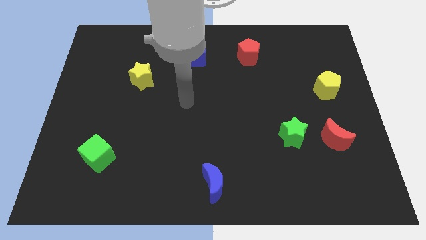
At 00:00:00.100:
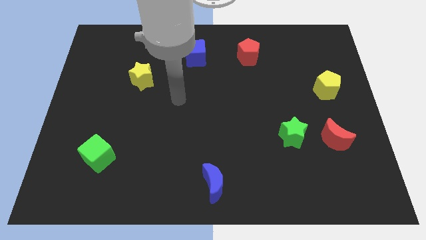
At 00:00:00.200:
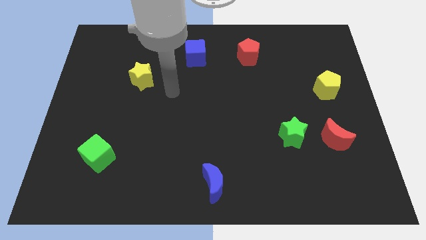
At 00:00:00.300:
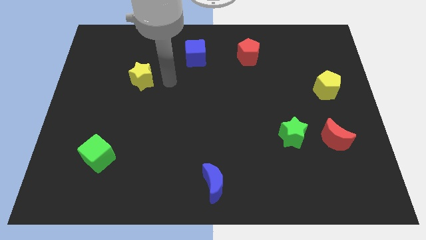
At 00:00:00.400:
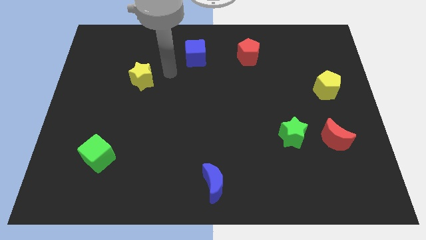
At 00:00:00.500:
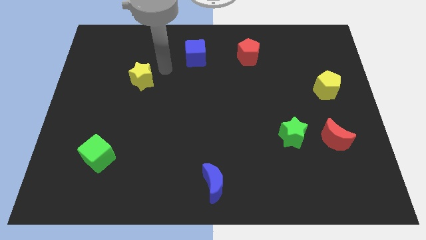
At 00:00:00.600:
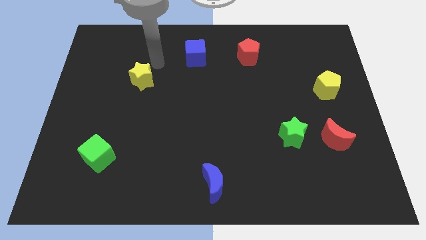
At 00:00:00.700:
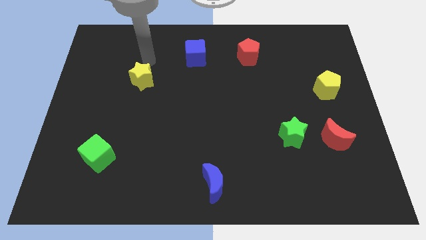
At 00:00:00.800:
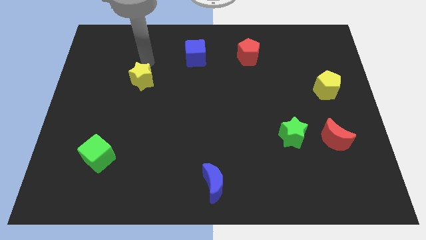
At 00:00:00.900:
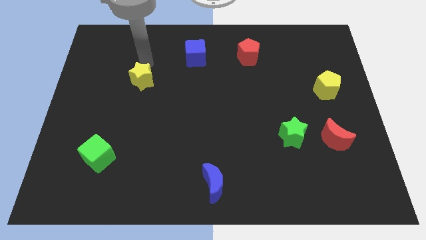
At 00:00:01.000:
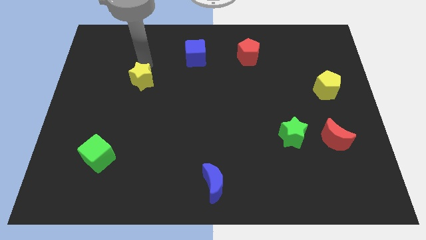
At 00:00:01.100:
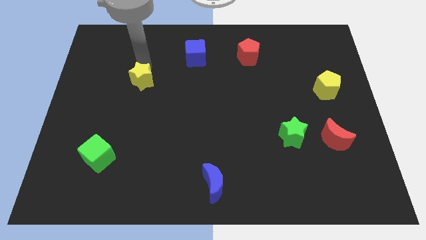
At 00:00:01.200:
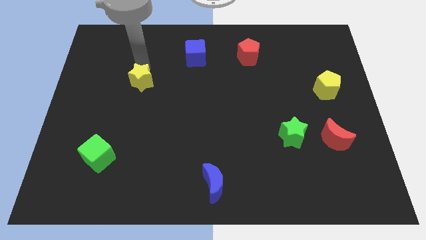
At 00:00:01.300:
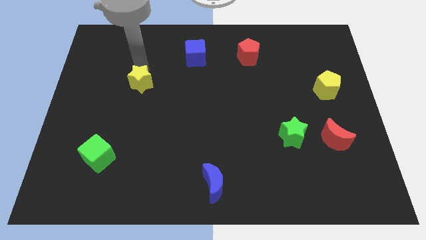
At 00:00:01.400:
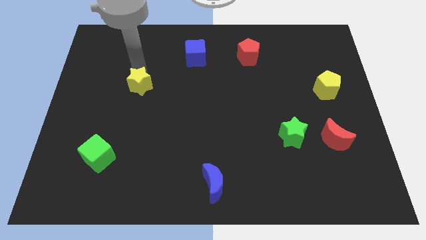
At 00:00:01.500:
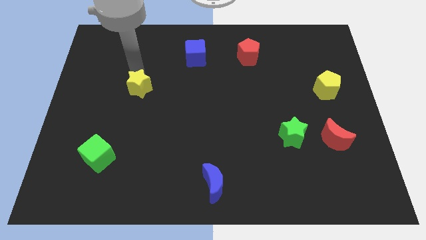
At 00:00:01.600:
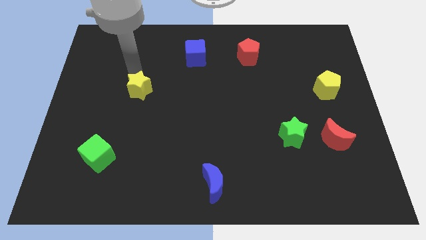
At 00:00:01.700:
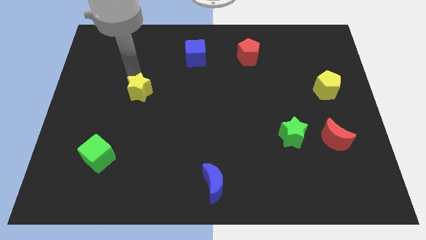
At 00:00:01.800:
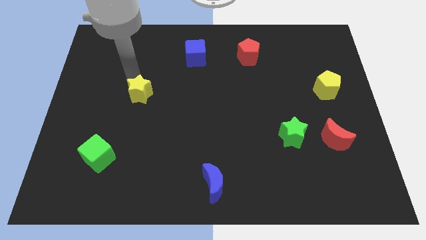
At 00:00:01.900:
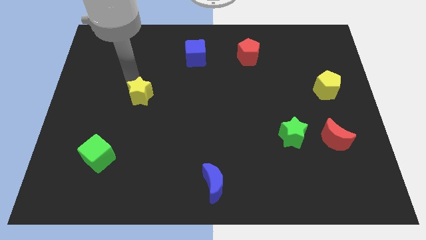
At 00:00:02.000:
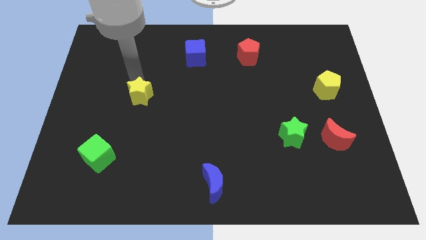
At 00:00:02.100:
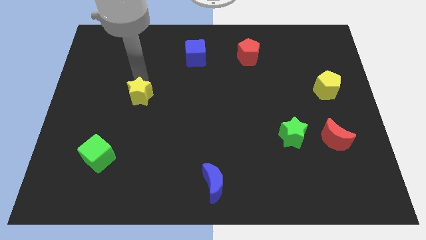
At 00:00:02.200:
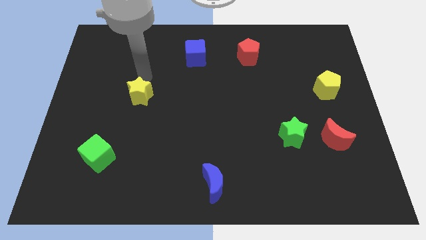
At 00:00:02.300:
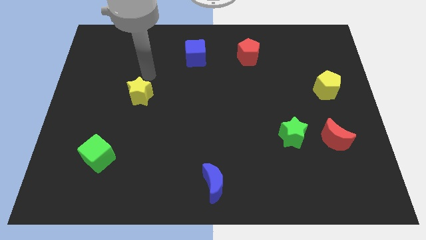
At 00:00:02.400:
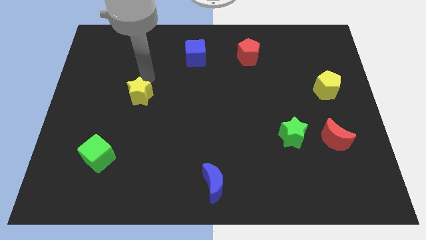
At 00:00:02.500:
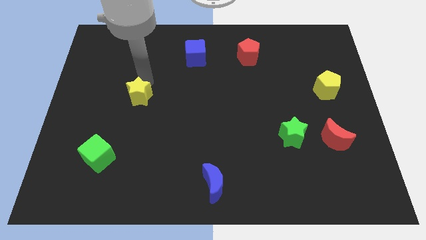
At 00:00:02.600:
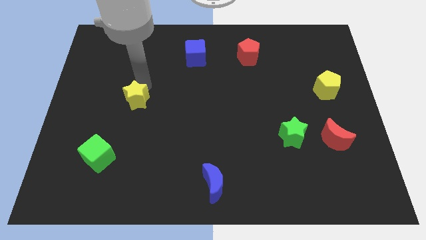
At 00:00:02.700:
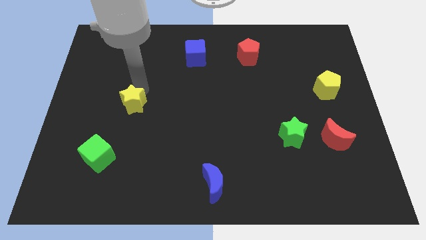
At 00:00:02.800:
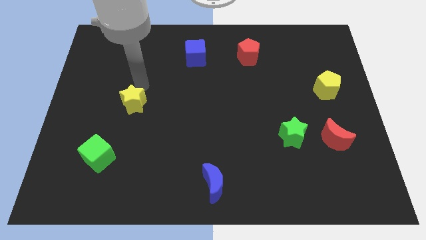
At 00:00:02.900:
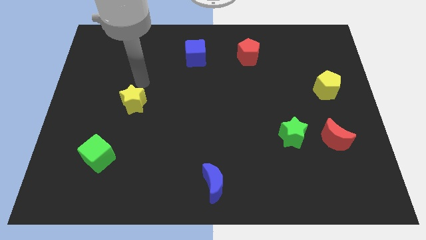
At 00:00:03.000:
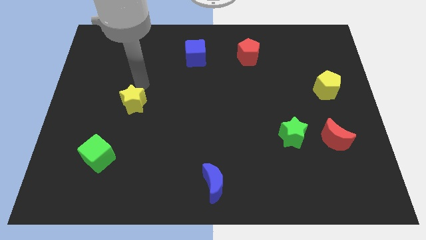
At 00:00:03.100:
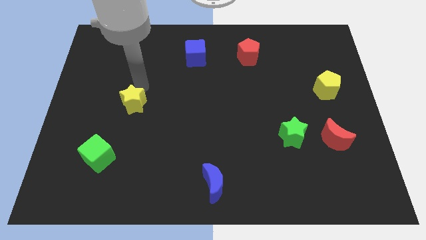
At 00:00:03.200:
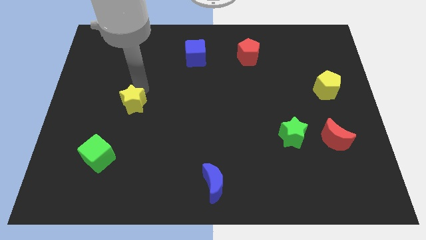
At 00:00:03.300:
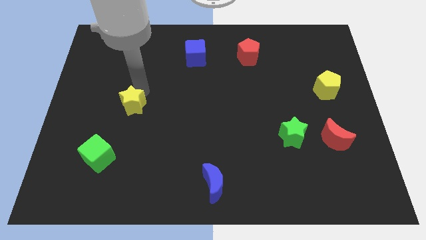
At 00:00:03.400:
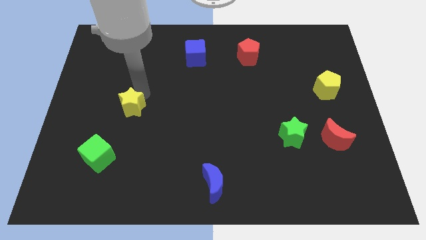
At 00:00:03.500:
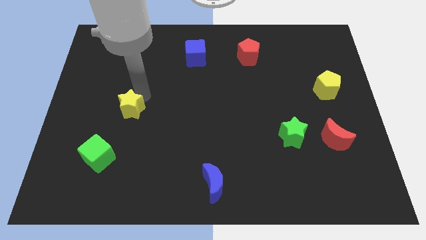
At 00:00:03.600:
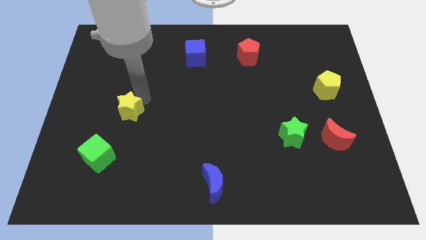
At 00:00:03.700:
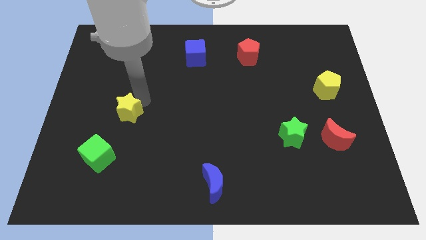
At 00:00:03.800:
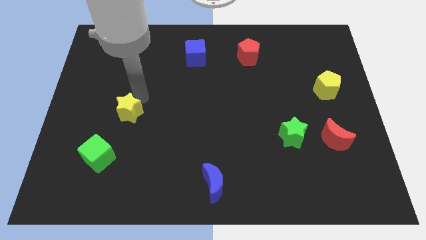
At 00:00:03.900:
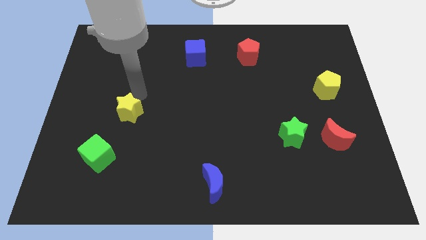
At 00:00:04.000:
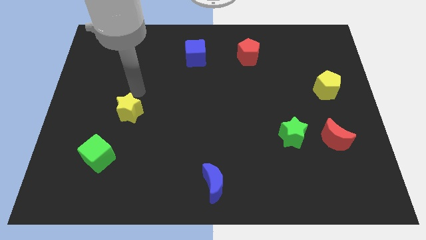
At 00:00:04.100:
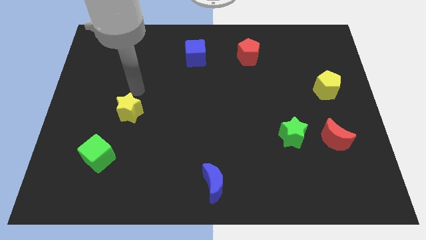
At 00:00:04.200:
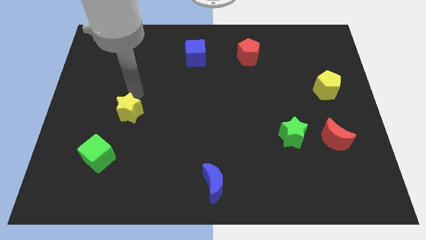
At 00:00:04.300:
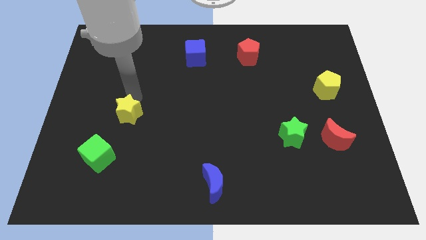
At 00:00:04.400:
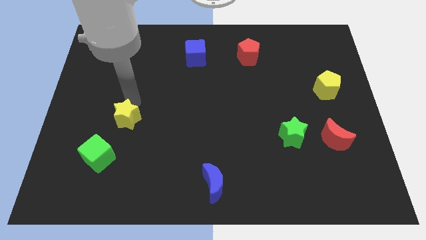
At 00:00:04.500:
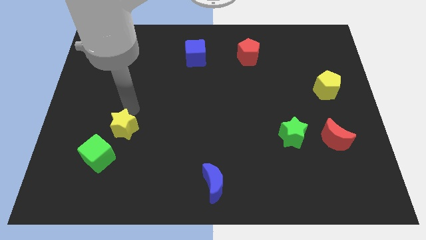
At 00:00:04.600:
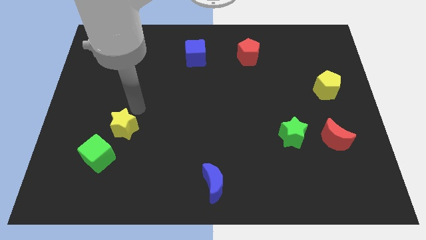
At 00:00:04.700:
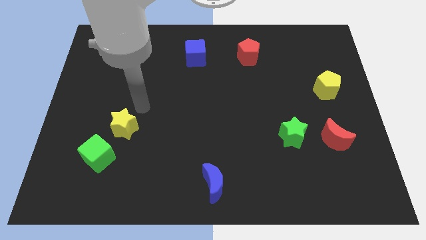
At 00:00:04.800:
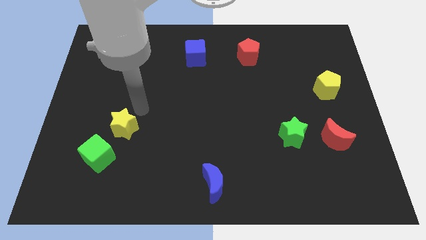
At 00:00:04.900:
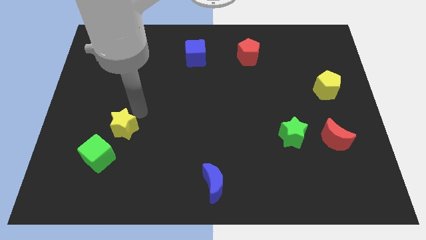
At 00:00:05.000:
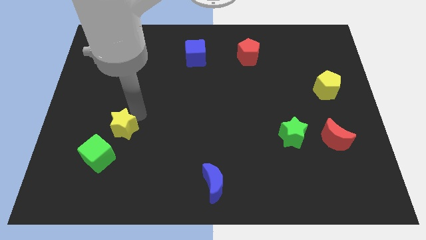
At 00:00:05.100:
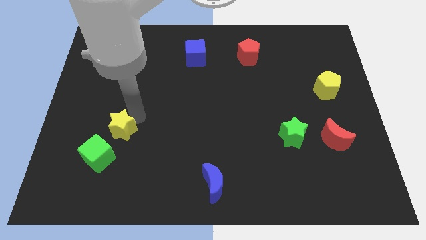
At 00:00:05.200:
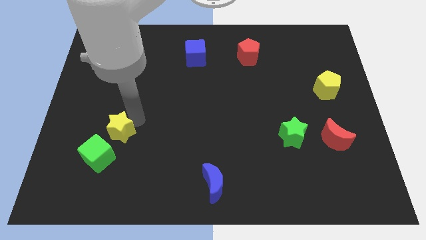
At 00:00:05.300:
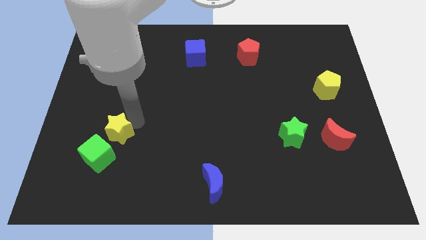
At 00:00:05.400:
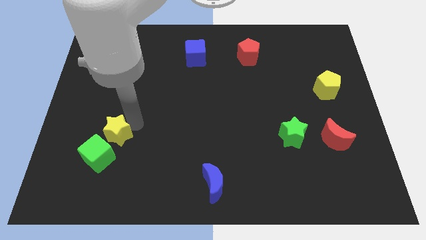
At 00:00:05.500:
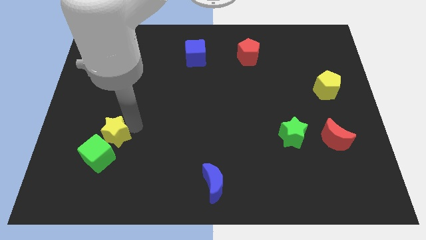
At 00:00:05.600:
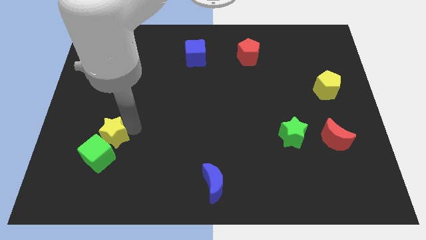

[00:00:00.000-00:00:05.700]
push the yellow star close to the green cube

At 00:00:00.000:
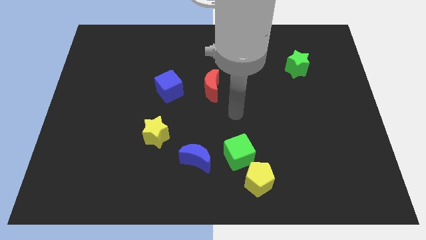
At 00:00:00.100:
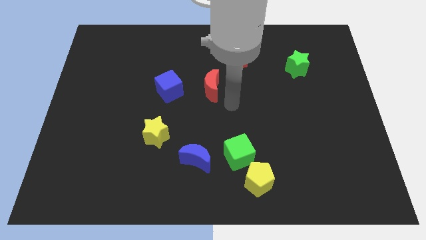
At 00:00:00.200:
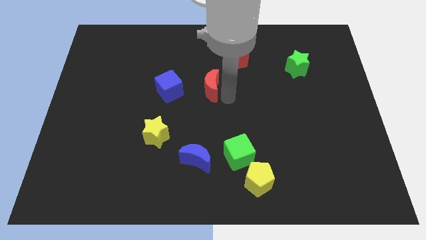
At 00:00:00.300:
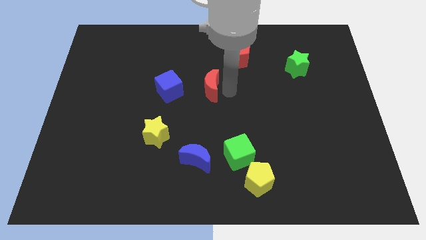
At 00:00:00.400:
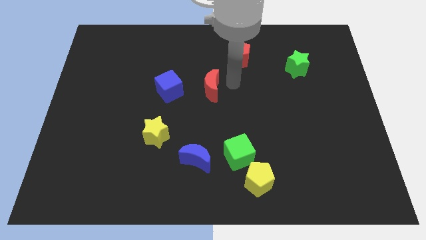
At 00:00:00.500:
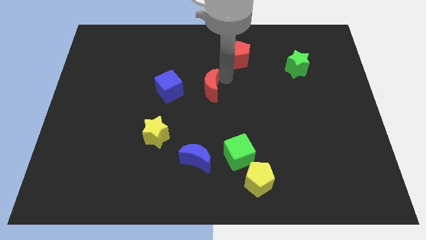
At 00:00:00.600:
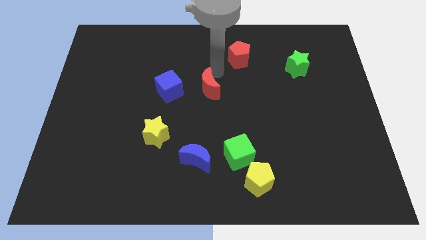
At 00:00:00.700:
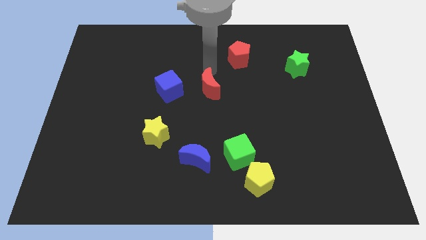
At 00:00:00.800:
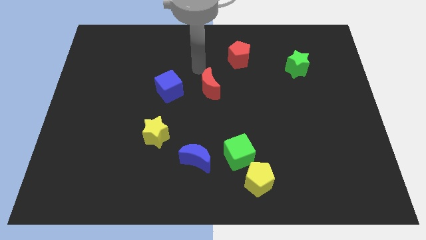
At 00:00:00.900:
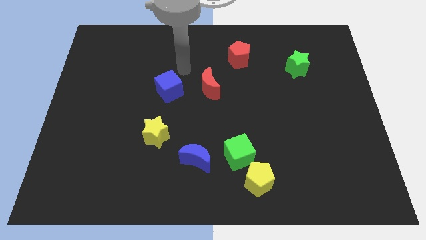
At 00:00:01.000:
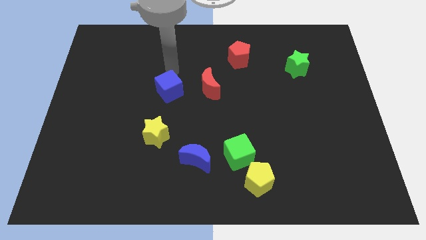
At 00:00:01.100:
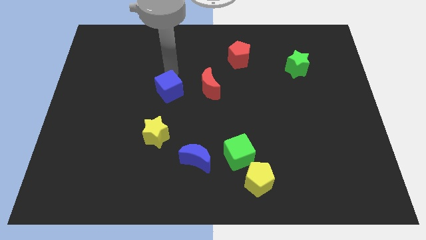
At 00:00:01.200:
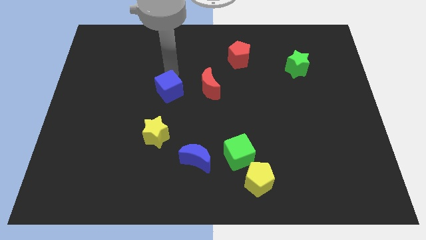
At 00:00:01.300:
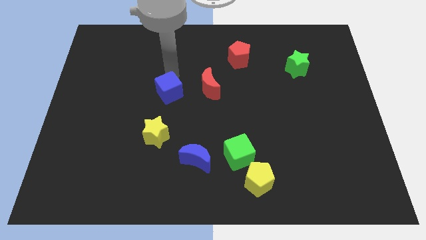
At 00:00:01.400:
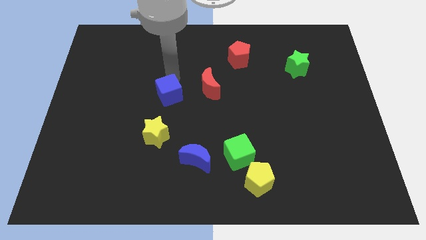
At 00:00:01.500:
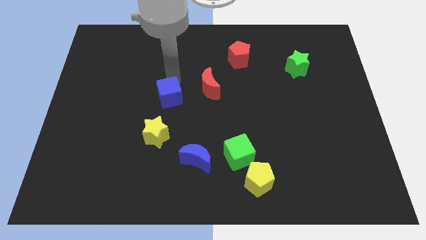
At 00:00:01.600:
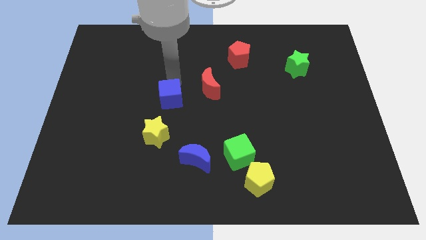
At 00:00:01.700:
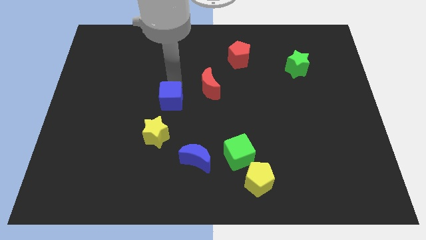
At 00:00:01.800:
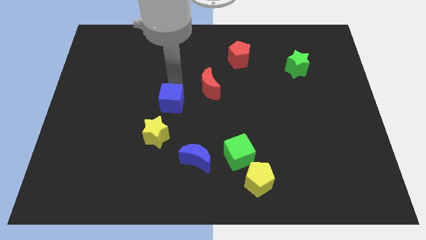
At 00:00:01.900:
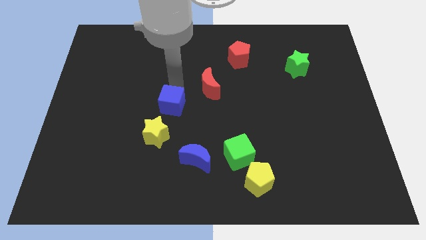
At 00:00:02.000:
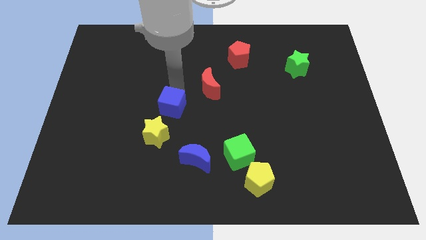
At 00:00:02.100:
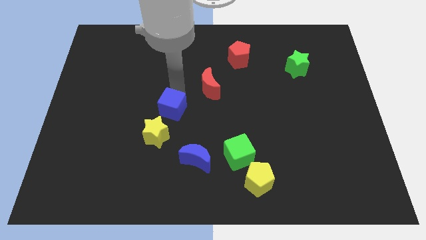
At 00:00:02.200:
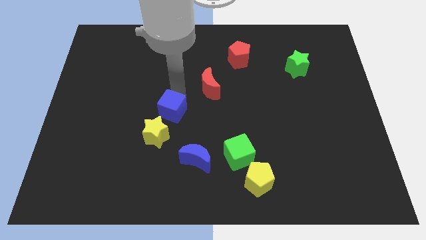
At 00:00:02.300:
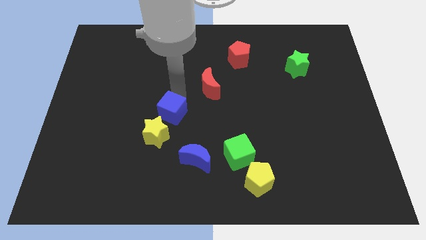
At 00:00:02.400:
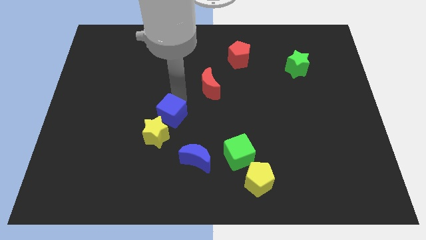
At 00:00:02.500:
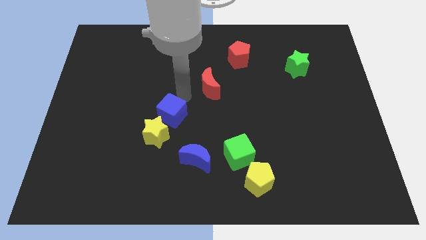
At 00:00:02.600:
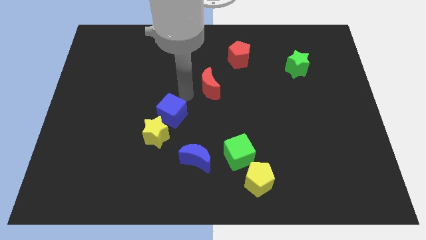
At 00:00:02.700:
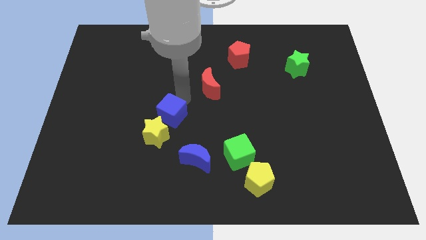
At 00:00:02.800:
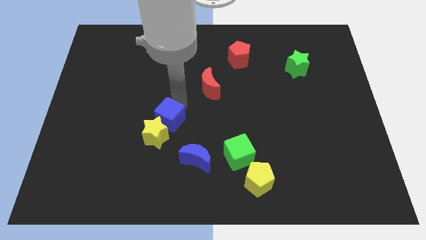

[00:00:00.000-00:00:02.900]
move the blue cube to the yellow star
